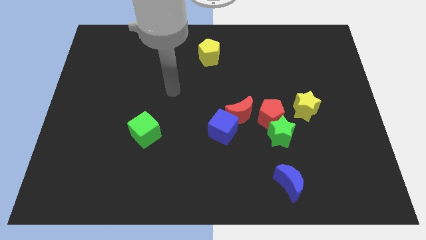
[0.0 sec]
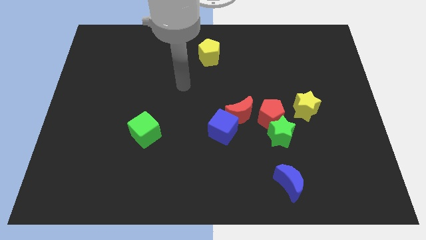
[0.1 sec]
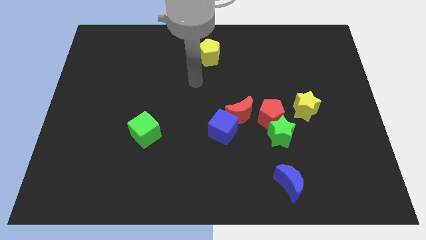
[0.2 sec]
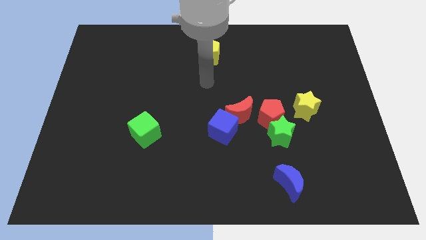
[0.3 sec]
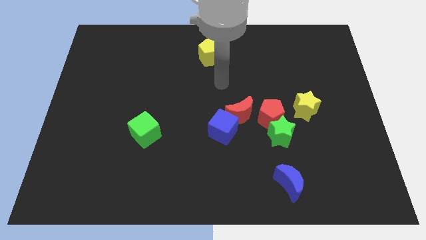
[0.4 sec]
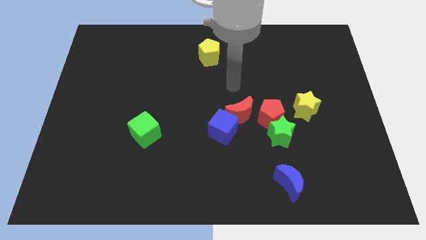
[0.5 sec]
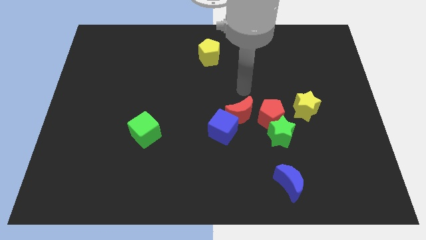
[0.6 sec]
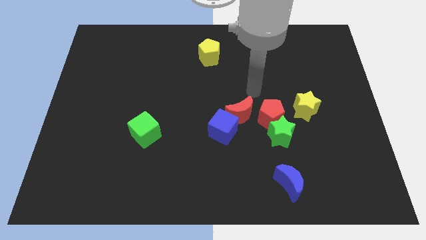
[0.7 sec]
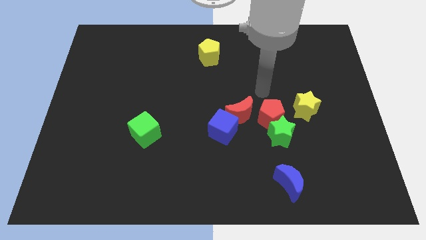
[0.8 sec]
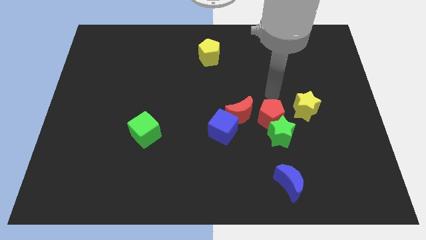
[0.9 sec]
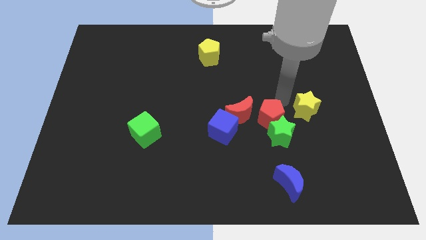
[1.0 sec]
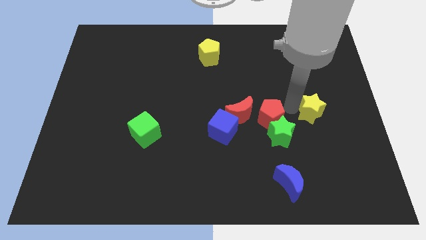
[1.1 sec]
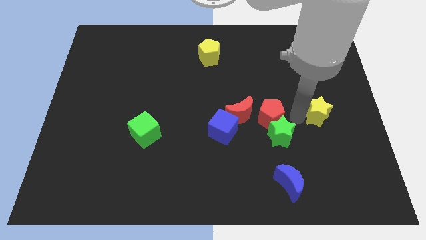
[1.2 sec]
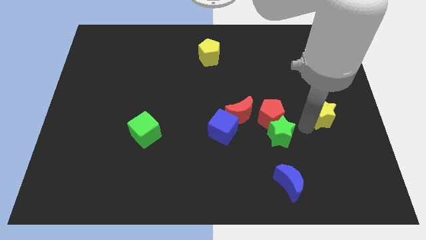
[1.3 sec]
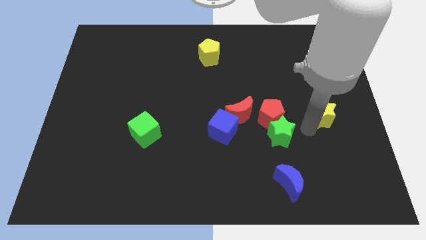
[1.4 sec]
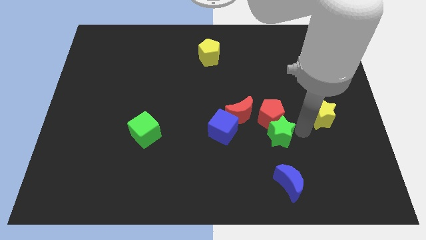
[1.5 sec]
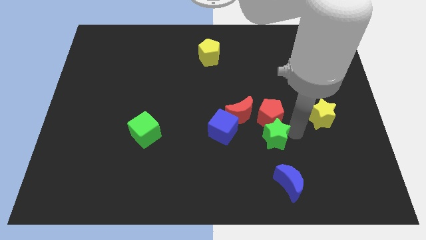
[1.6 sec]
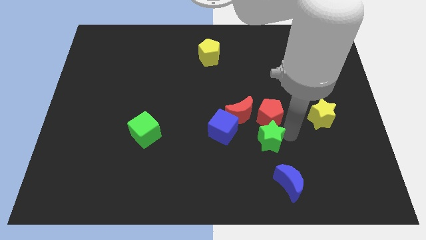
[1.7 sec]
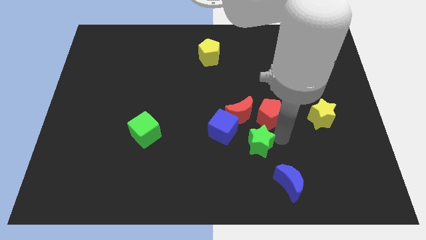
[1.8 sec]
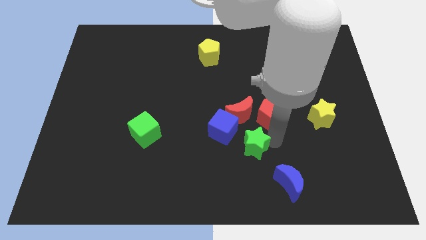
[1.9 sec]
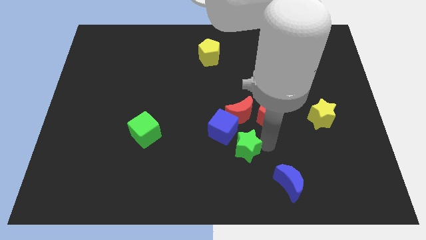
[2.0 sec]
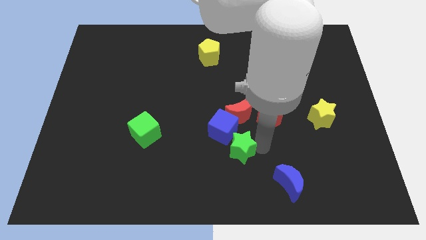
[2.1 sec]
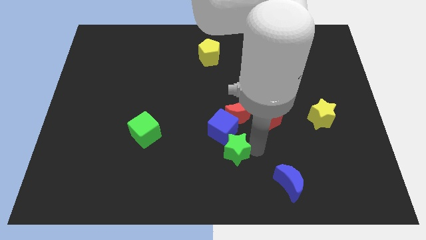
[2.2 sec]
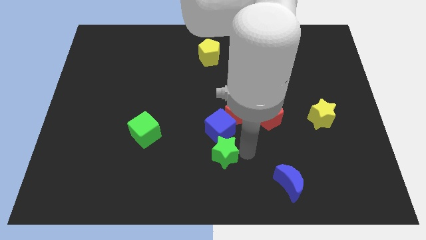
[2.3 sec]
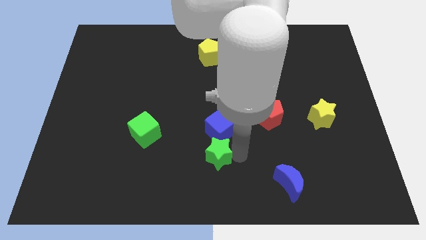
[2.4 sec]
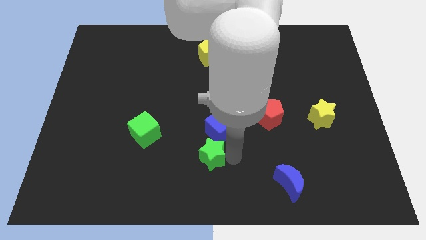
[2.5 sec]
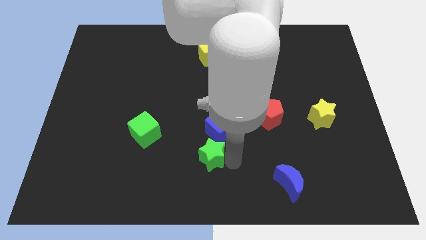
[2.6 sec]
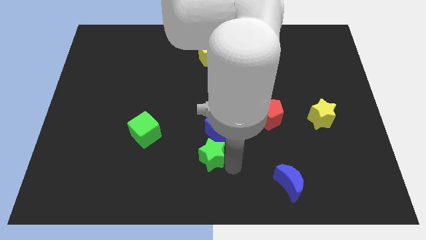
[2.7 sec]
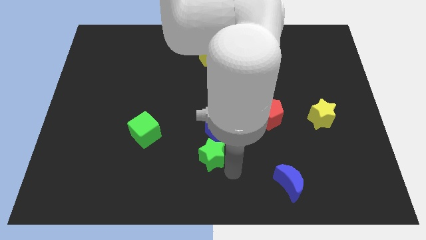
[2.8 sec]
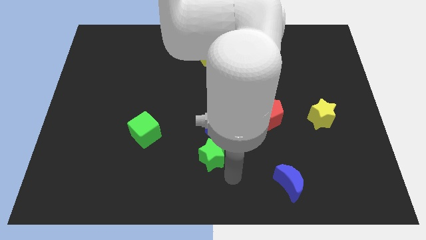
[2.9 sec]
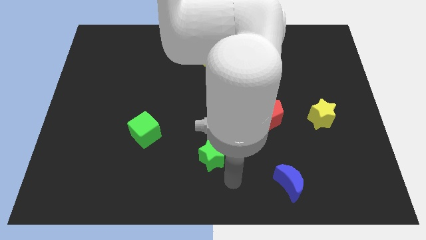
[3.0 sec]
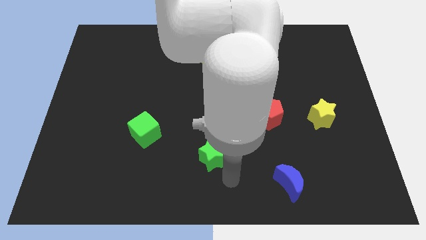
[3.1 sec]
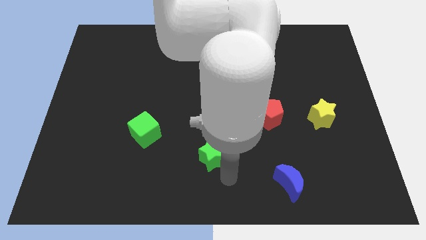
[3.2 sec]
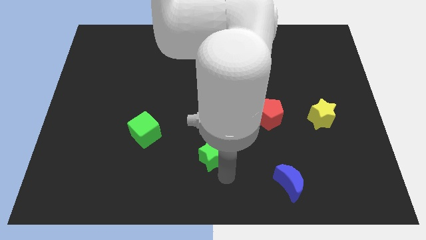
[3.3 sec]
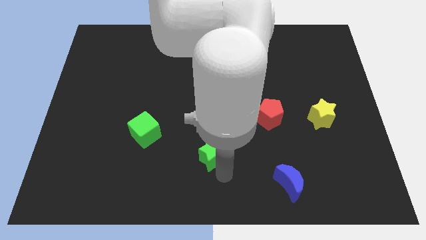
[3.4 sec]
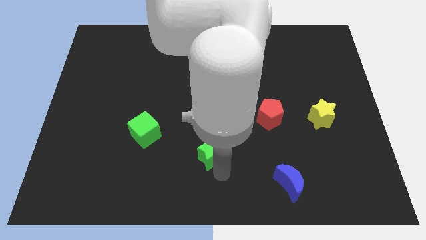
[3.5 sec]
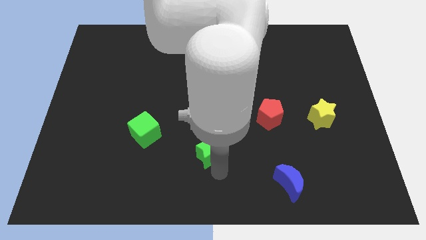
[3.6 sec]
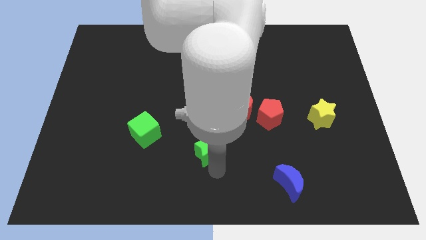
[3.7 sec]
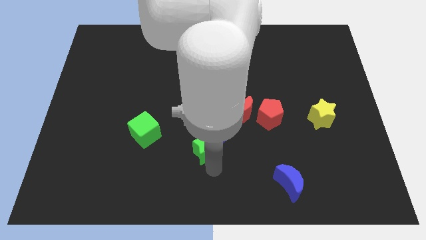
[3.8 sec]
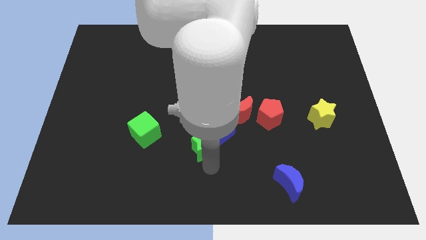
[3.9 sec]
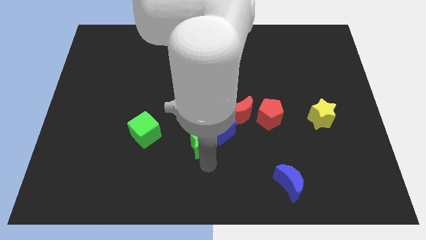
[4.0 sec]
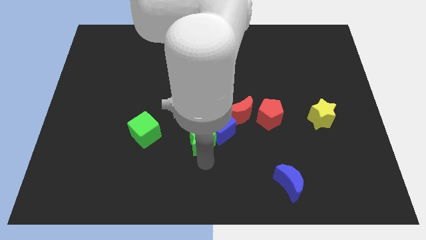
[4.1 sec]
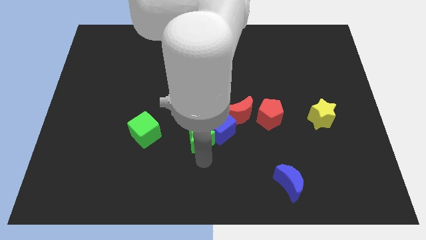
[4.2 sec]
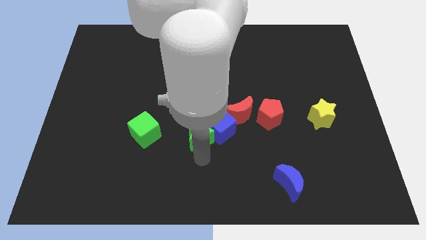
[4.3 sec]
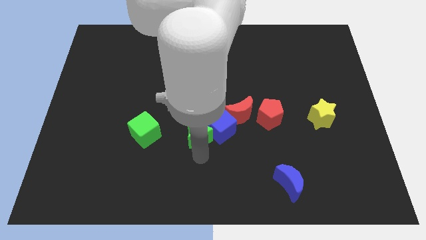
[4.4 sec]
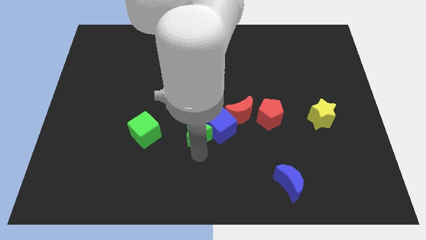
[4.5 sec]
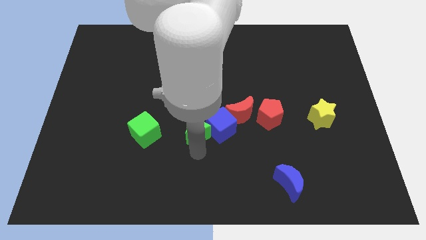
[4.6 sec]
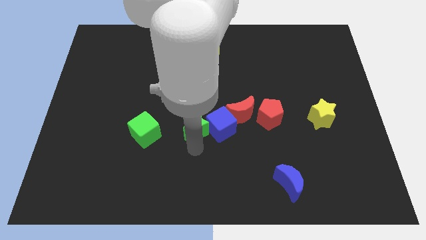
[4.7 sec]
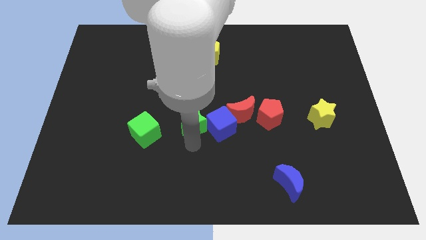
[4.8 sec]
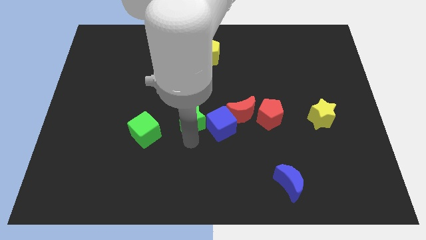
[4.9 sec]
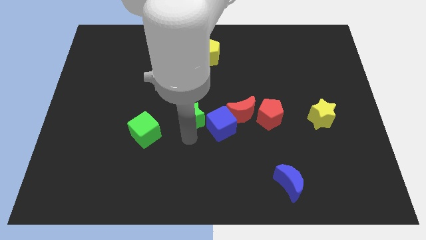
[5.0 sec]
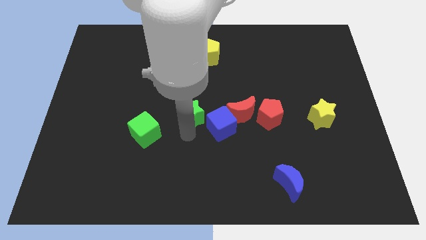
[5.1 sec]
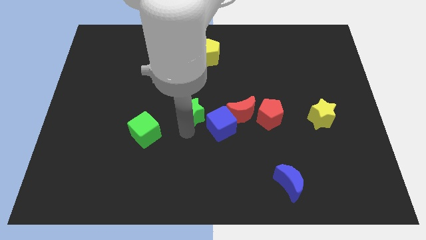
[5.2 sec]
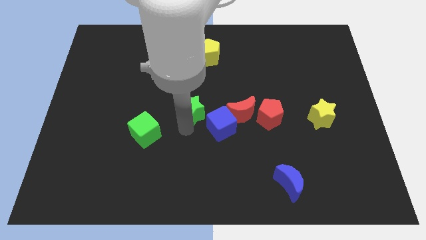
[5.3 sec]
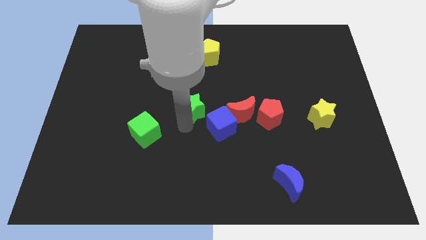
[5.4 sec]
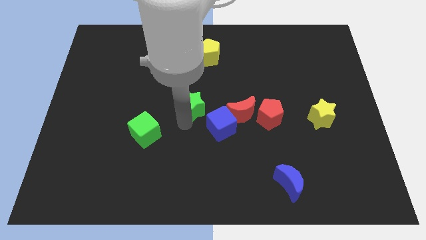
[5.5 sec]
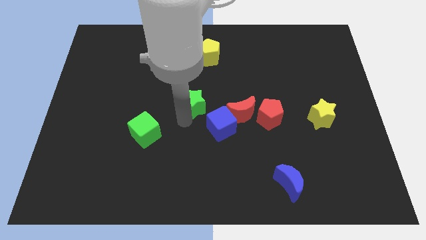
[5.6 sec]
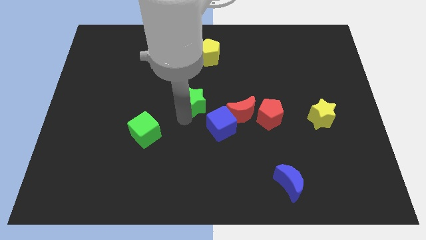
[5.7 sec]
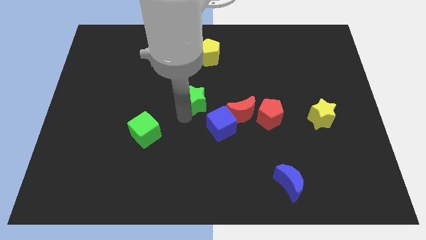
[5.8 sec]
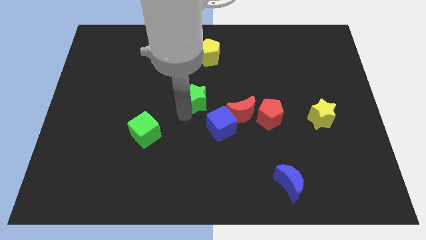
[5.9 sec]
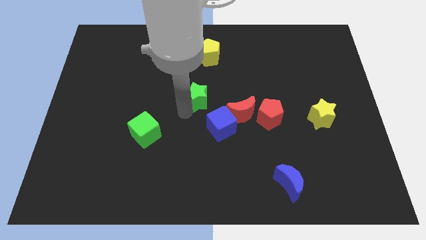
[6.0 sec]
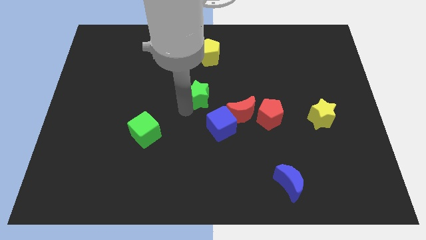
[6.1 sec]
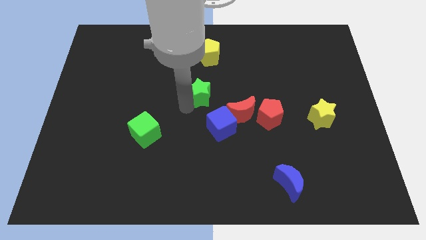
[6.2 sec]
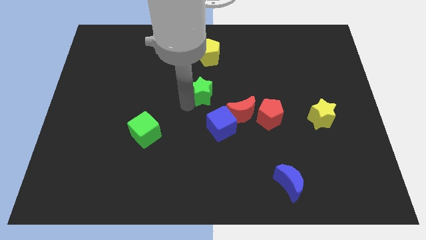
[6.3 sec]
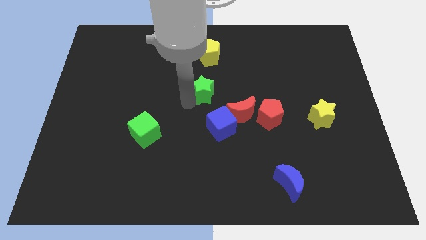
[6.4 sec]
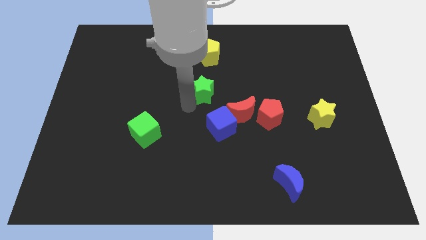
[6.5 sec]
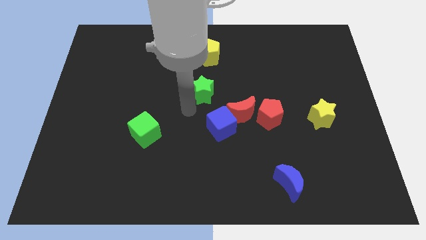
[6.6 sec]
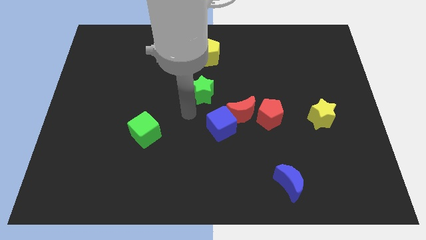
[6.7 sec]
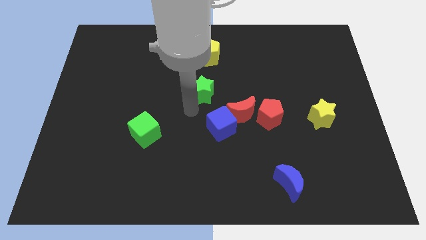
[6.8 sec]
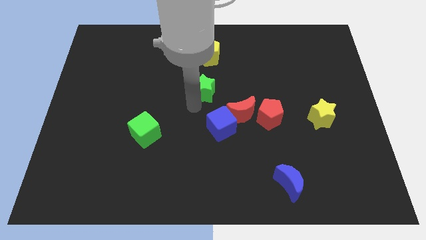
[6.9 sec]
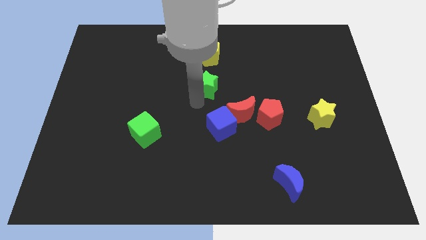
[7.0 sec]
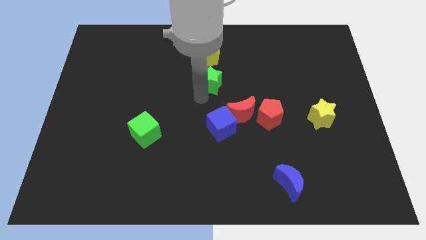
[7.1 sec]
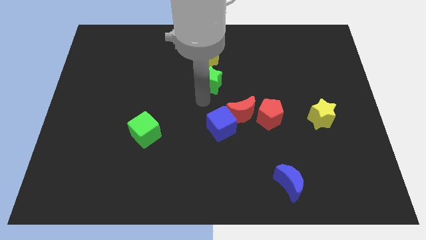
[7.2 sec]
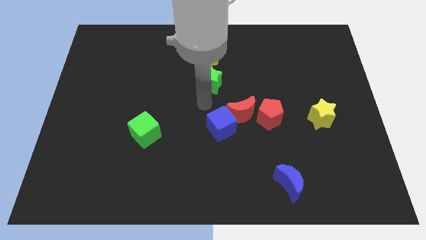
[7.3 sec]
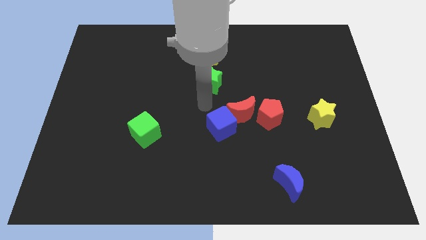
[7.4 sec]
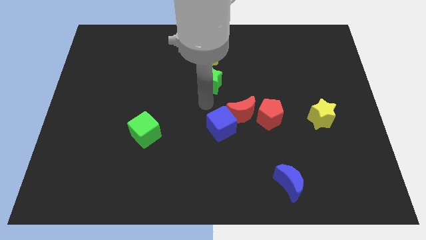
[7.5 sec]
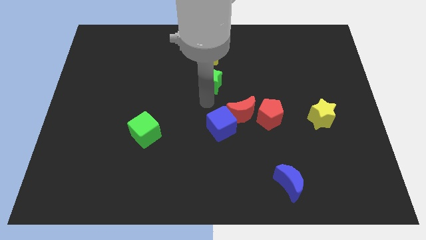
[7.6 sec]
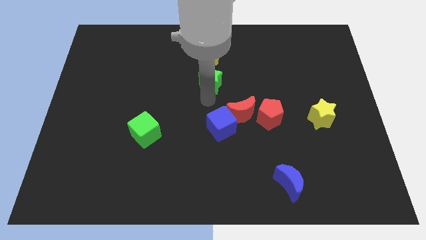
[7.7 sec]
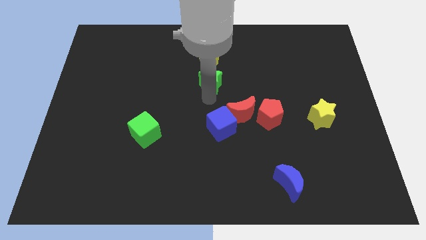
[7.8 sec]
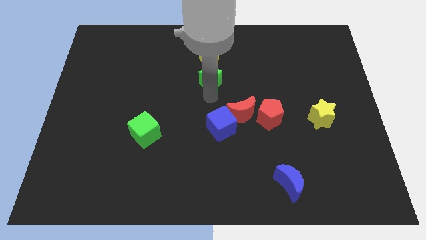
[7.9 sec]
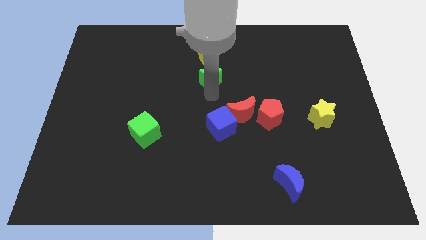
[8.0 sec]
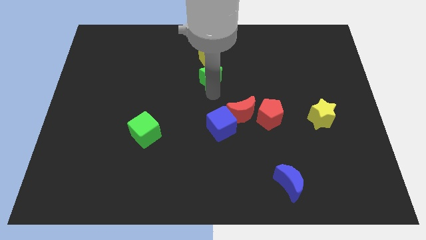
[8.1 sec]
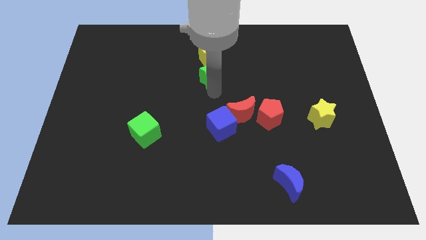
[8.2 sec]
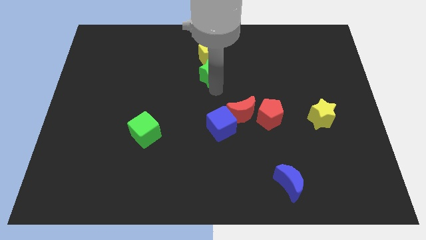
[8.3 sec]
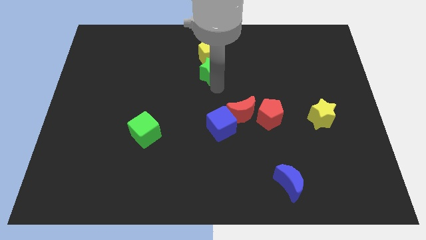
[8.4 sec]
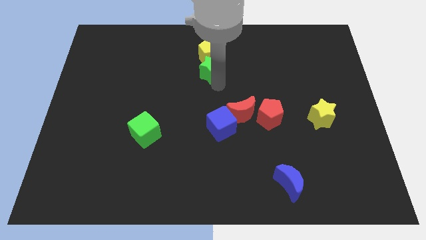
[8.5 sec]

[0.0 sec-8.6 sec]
push the green star next to the yellow pentagon
